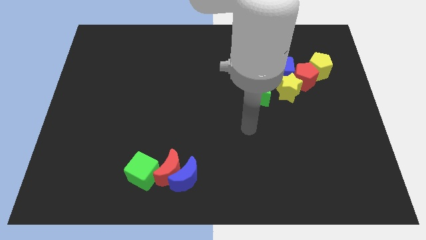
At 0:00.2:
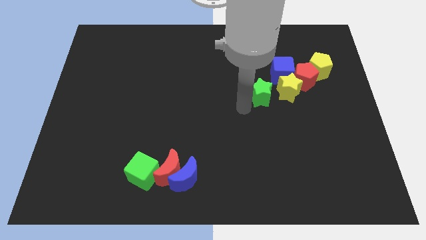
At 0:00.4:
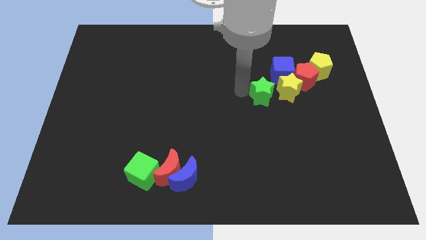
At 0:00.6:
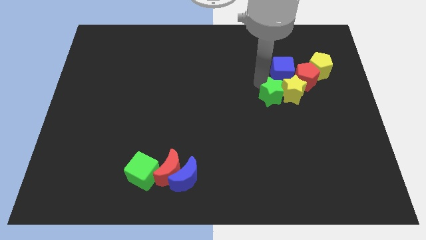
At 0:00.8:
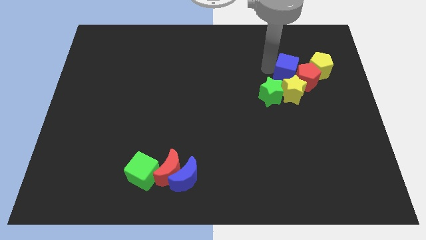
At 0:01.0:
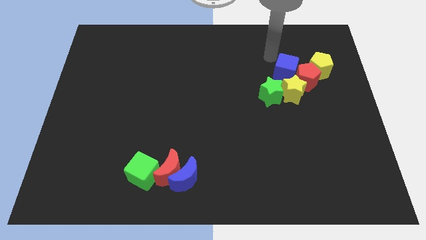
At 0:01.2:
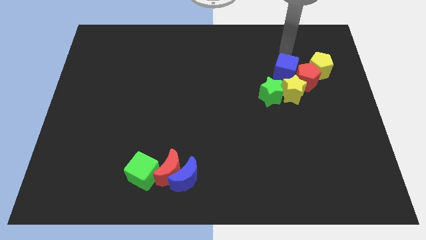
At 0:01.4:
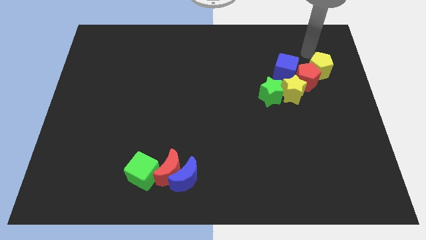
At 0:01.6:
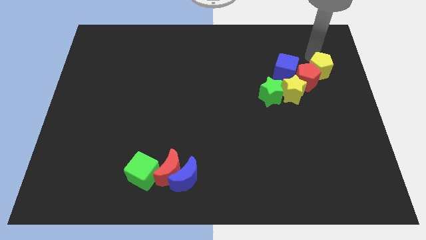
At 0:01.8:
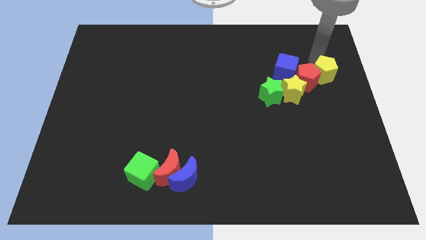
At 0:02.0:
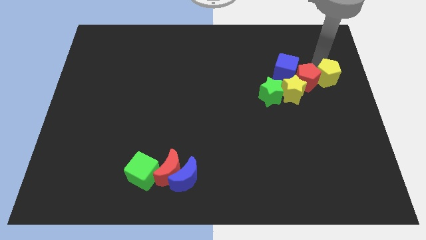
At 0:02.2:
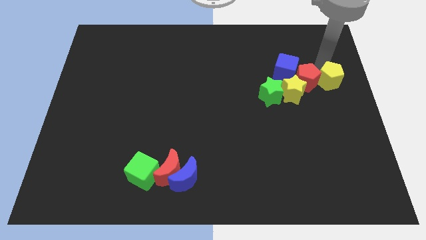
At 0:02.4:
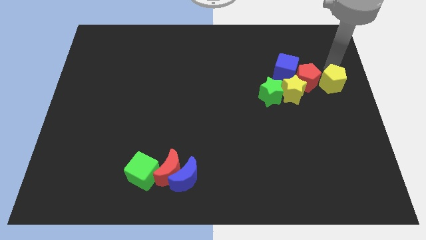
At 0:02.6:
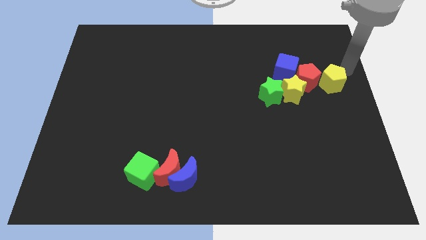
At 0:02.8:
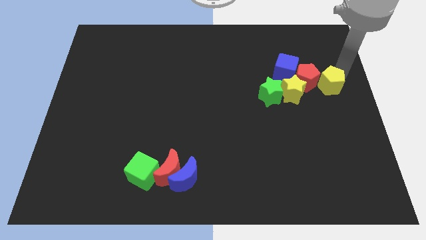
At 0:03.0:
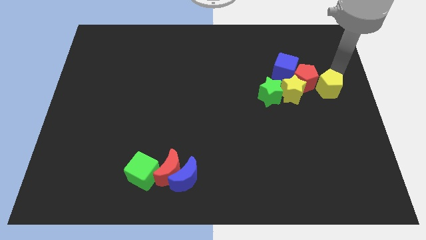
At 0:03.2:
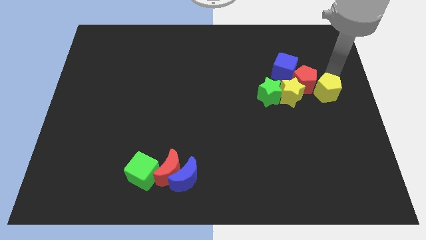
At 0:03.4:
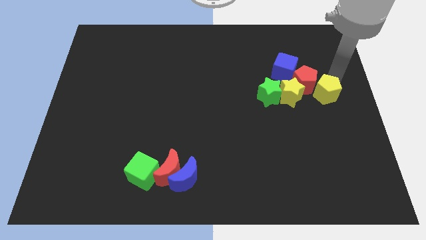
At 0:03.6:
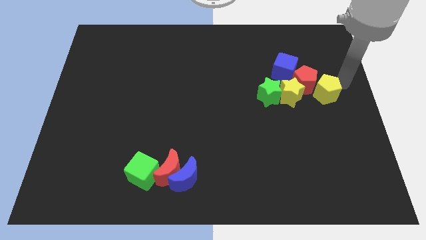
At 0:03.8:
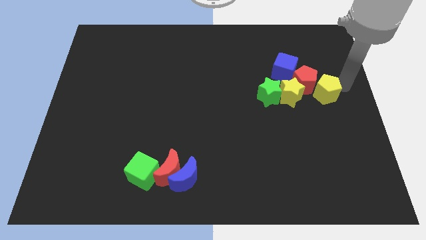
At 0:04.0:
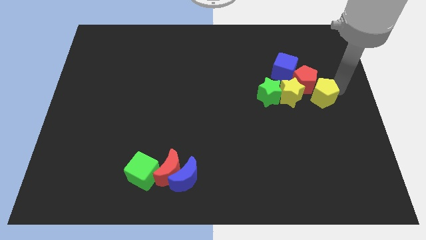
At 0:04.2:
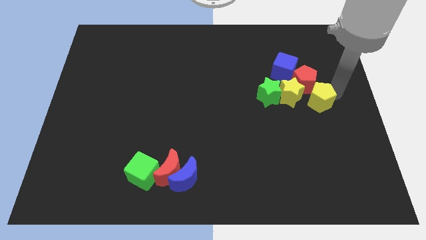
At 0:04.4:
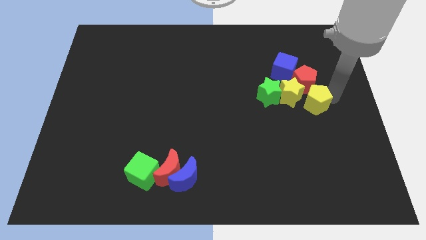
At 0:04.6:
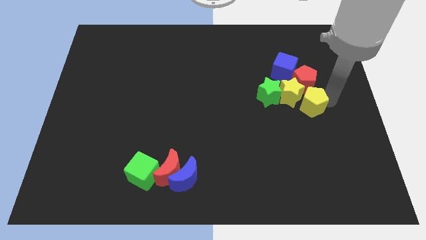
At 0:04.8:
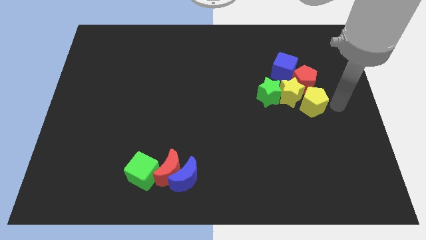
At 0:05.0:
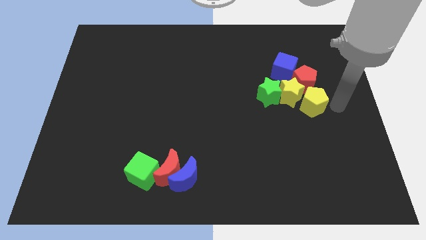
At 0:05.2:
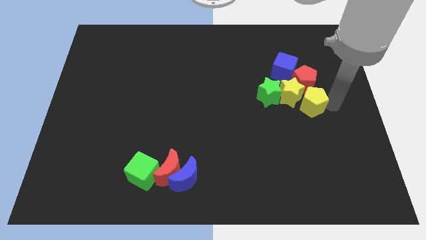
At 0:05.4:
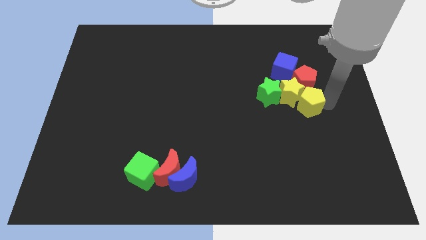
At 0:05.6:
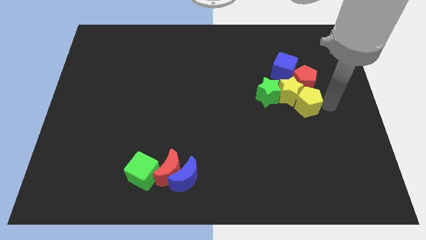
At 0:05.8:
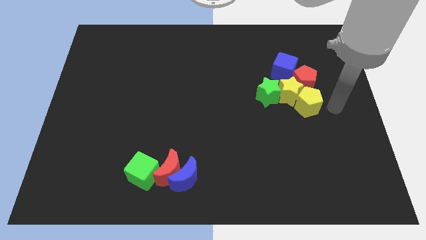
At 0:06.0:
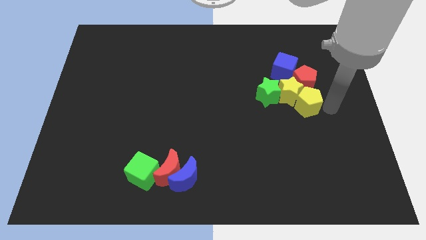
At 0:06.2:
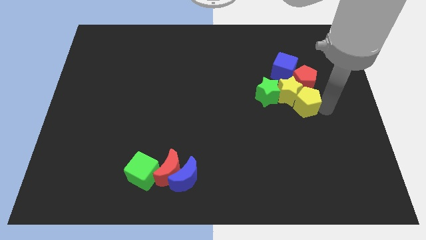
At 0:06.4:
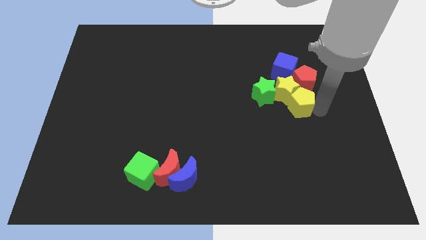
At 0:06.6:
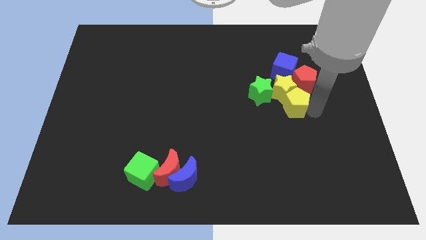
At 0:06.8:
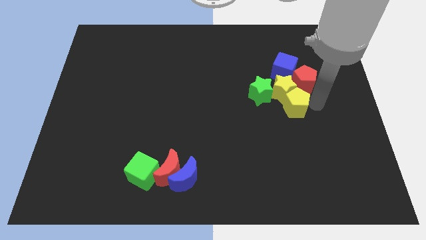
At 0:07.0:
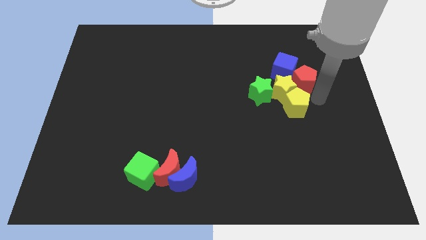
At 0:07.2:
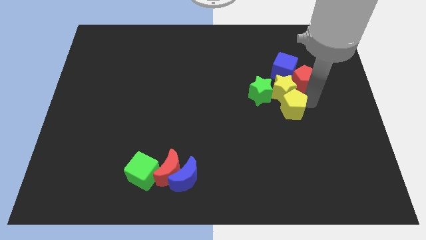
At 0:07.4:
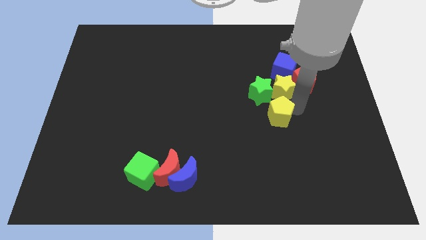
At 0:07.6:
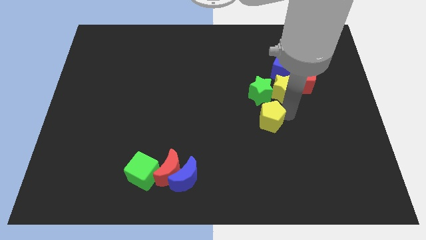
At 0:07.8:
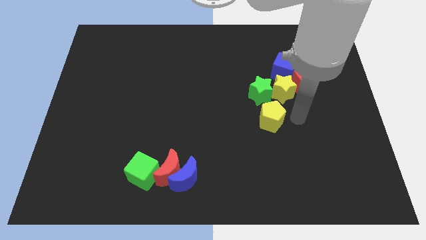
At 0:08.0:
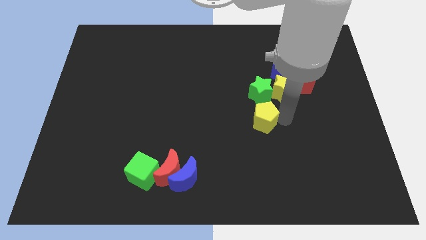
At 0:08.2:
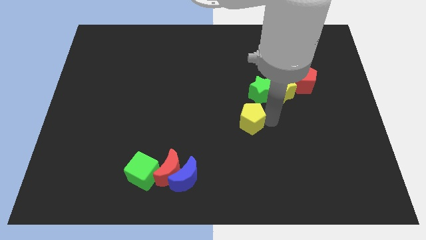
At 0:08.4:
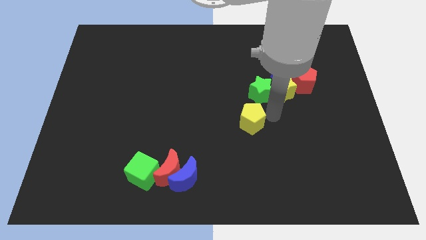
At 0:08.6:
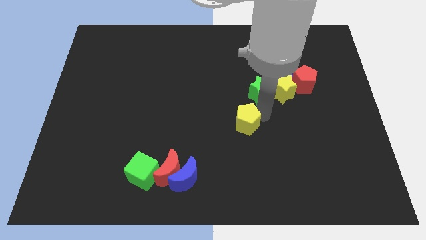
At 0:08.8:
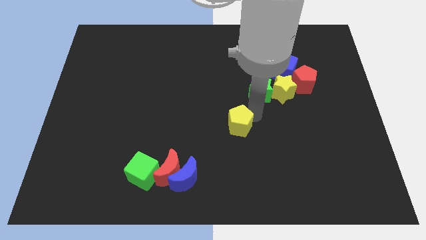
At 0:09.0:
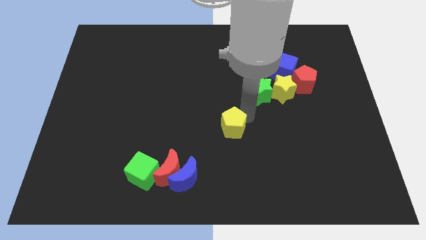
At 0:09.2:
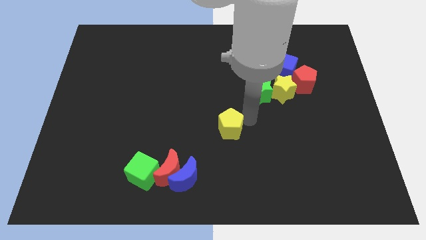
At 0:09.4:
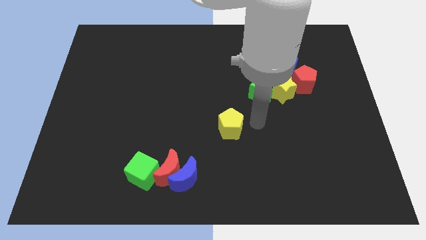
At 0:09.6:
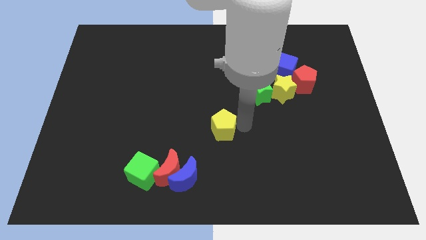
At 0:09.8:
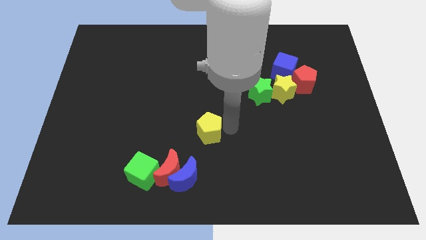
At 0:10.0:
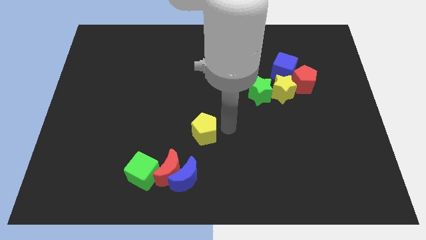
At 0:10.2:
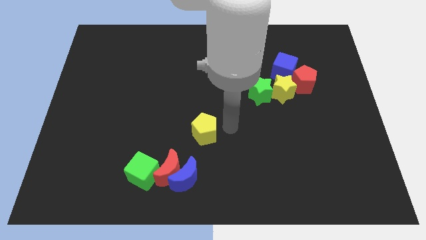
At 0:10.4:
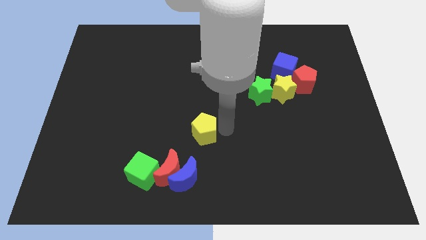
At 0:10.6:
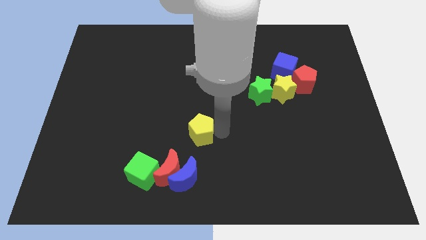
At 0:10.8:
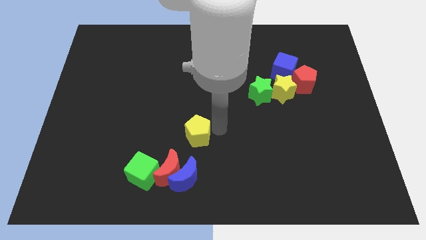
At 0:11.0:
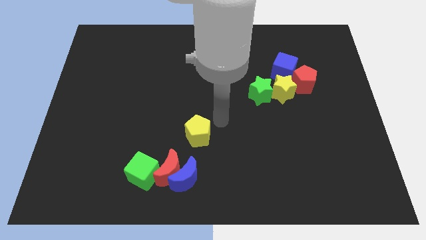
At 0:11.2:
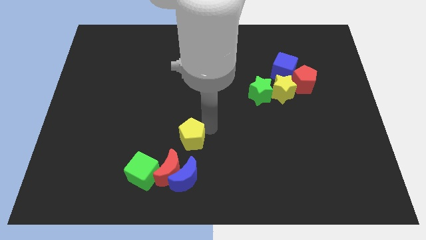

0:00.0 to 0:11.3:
push the yellow pentagon diagonally up and to the right of the green cube

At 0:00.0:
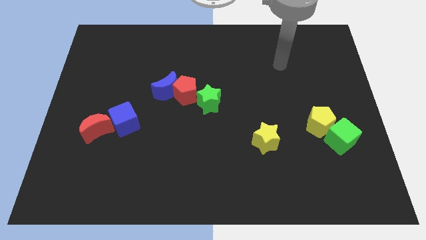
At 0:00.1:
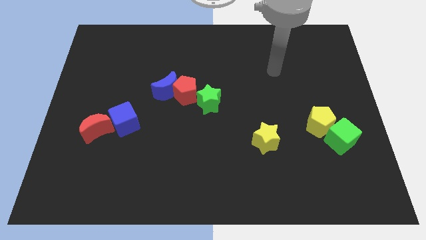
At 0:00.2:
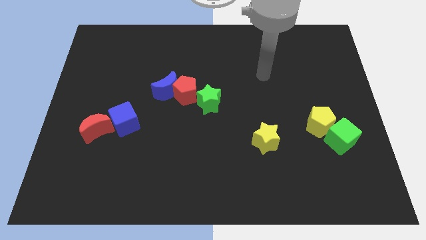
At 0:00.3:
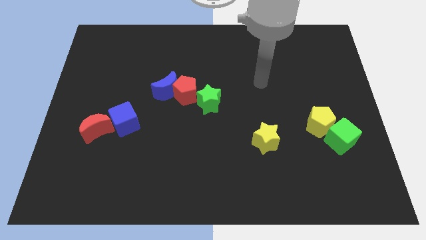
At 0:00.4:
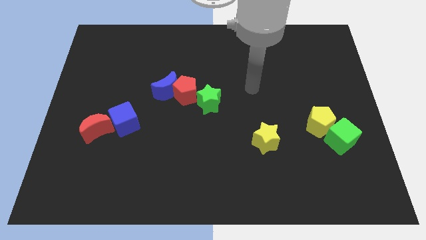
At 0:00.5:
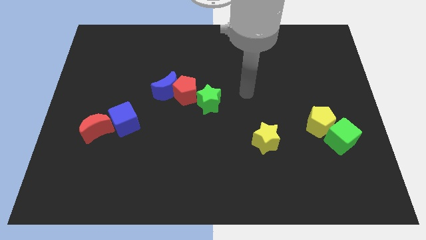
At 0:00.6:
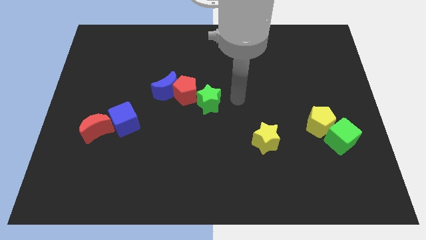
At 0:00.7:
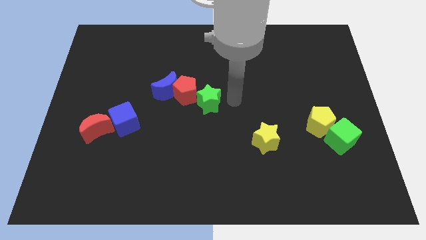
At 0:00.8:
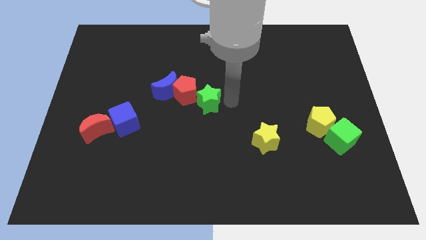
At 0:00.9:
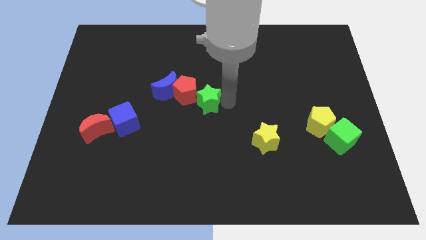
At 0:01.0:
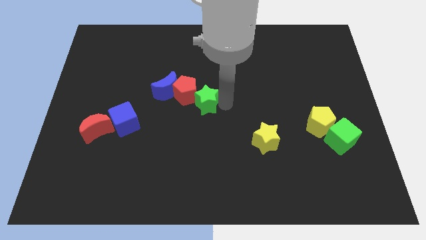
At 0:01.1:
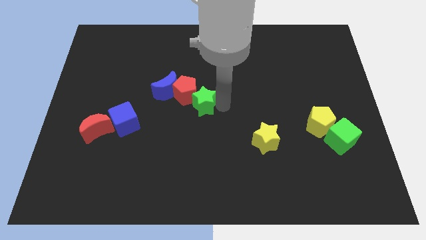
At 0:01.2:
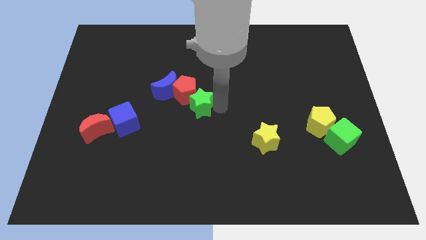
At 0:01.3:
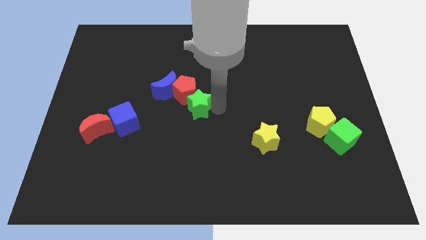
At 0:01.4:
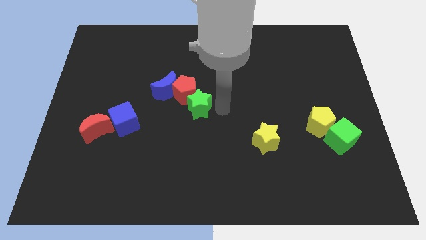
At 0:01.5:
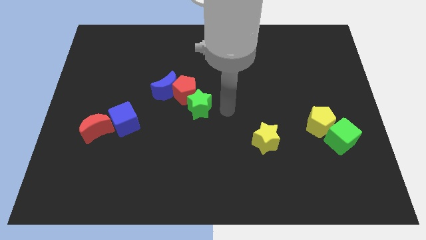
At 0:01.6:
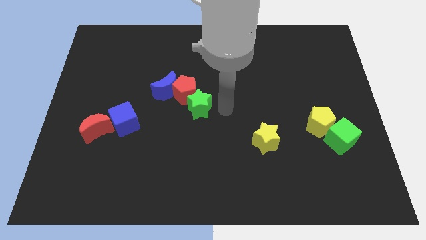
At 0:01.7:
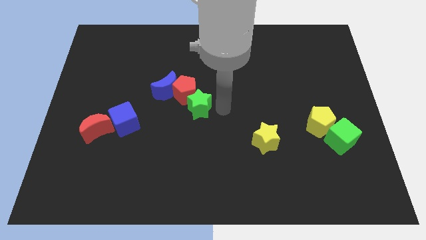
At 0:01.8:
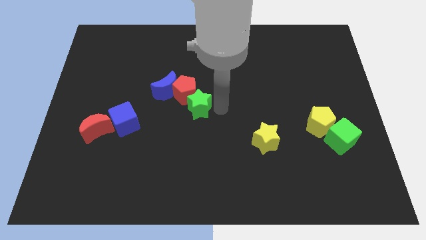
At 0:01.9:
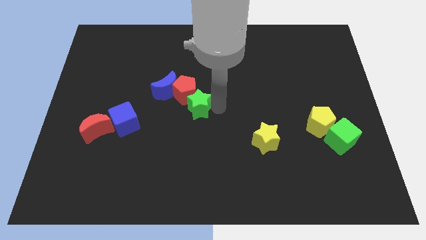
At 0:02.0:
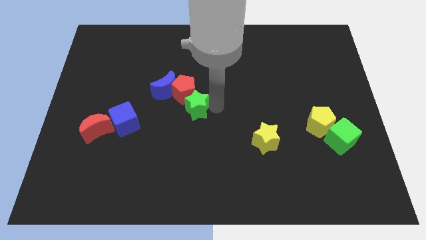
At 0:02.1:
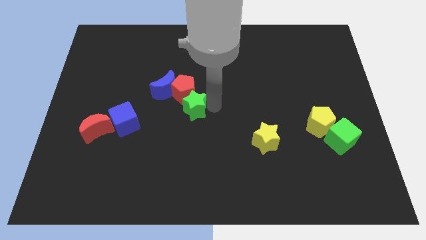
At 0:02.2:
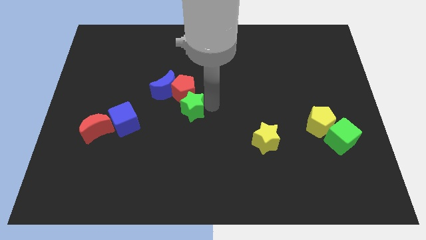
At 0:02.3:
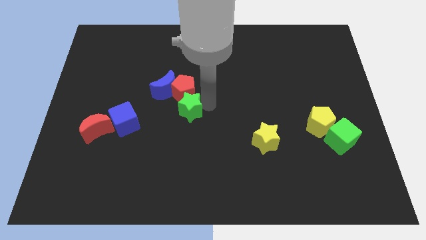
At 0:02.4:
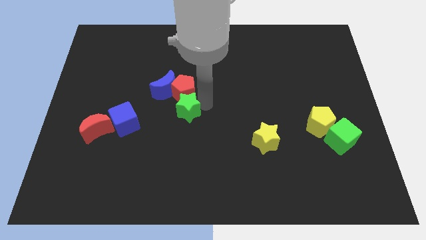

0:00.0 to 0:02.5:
put the green star diagonally down and to the left of the red pentagon
